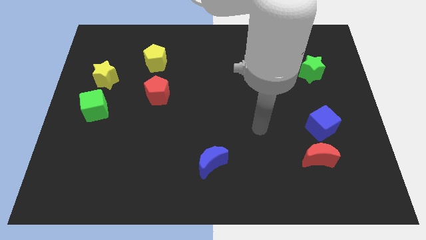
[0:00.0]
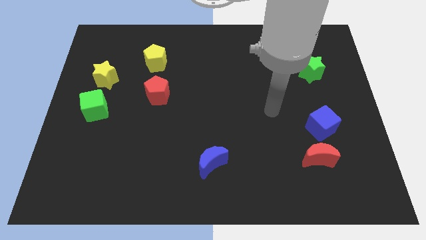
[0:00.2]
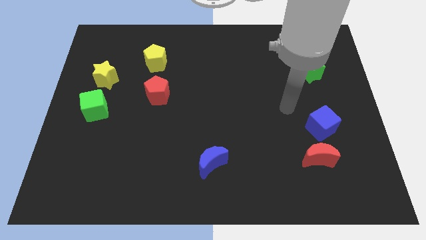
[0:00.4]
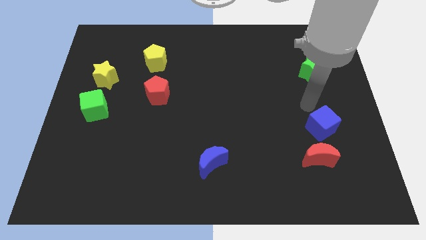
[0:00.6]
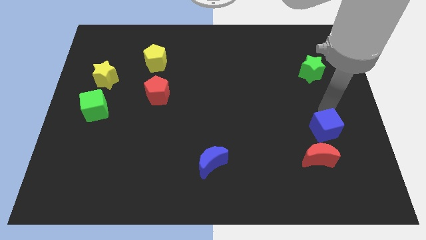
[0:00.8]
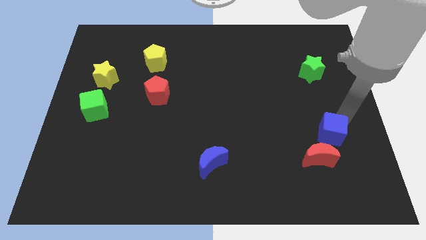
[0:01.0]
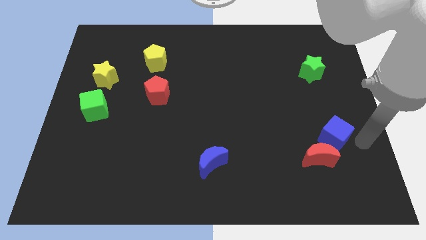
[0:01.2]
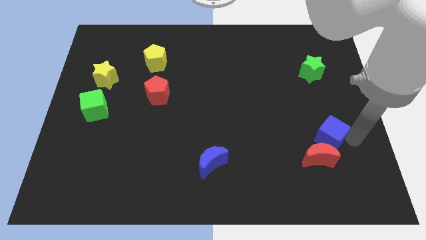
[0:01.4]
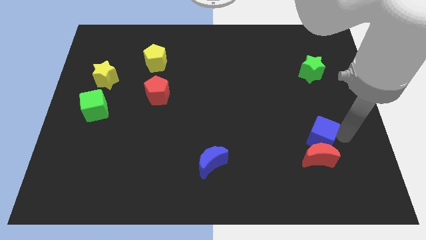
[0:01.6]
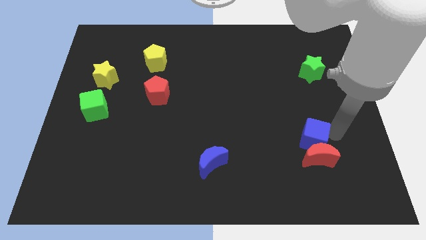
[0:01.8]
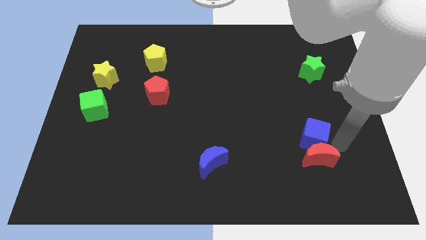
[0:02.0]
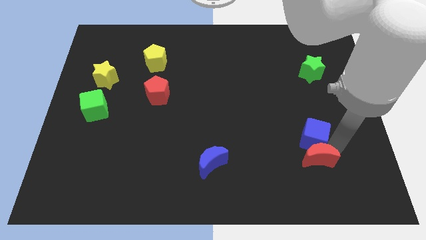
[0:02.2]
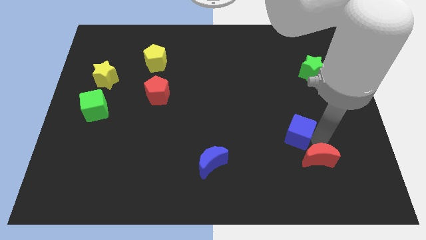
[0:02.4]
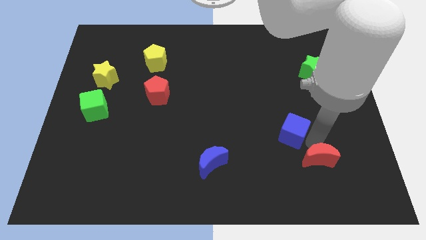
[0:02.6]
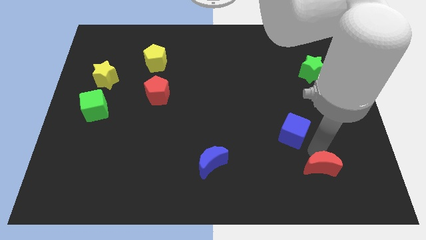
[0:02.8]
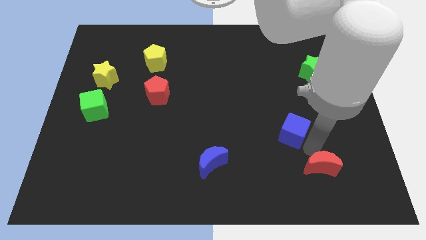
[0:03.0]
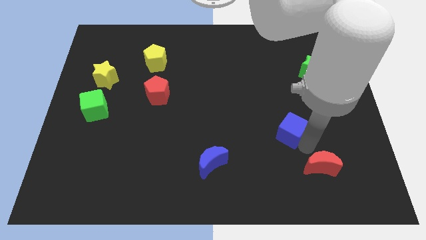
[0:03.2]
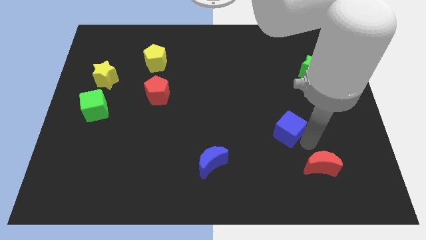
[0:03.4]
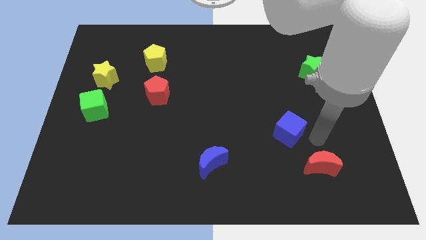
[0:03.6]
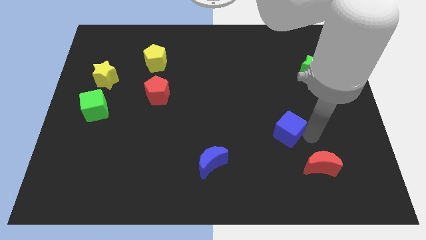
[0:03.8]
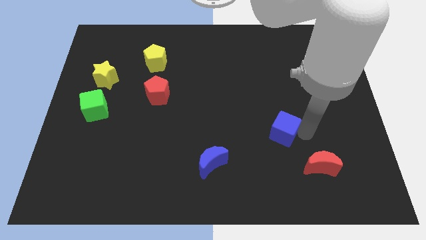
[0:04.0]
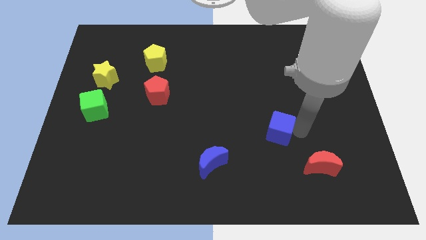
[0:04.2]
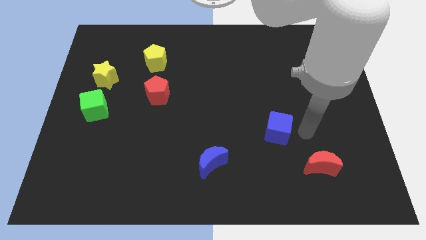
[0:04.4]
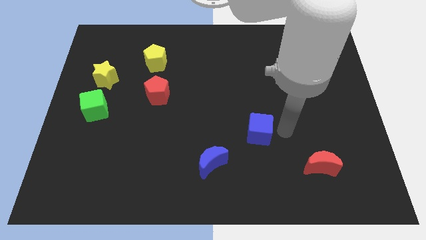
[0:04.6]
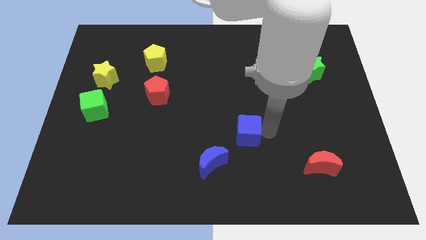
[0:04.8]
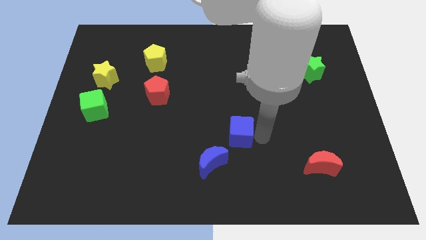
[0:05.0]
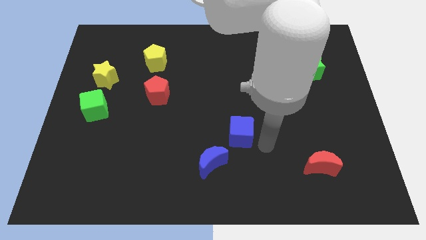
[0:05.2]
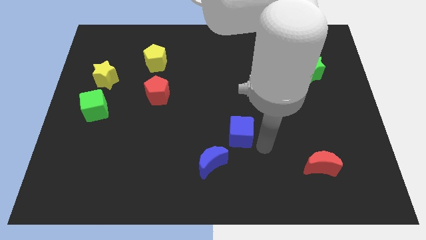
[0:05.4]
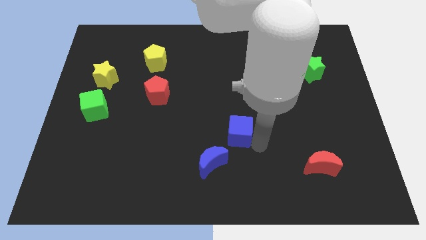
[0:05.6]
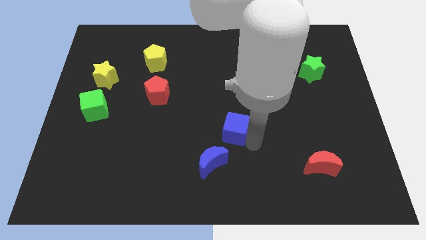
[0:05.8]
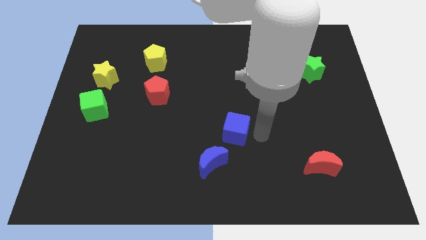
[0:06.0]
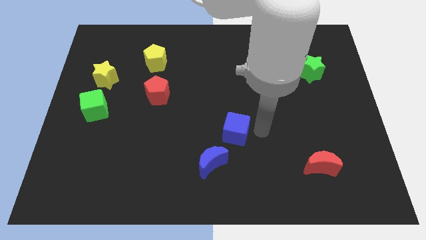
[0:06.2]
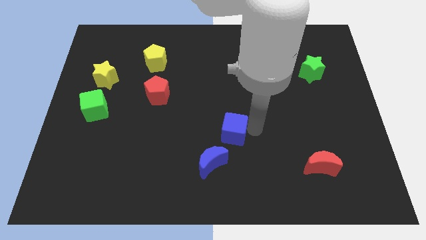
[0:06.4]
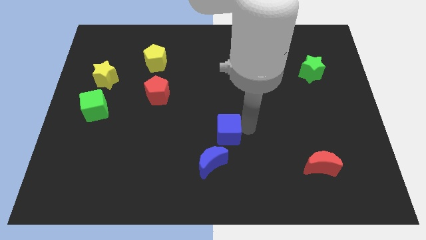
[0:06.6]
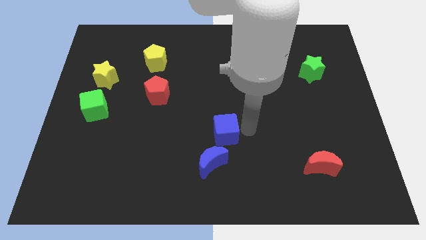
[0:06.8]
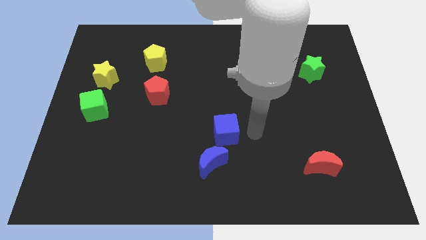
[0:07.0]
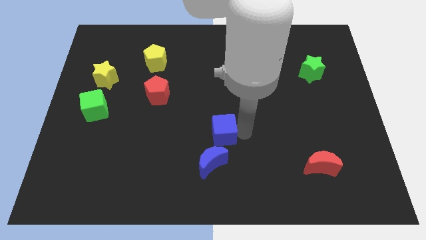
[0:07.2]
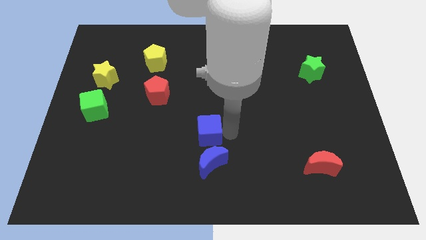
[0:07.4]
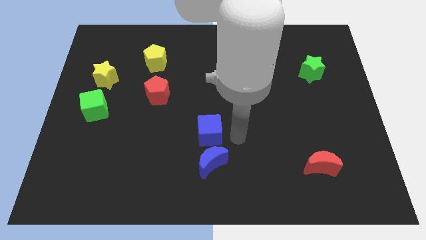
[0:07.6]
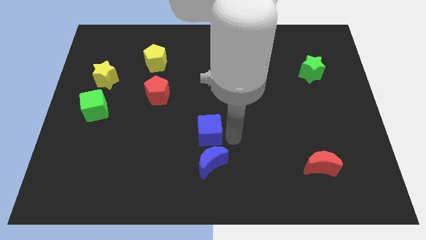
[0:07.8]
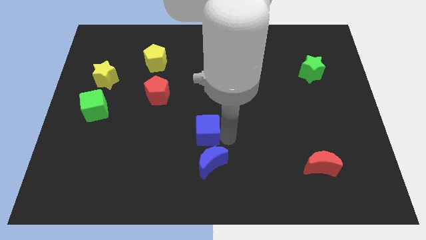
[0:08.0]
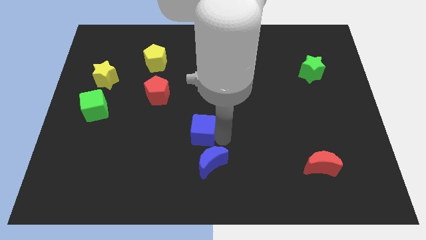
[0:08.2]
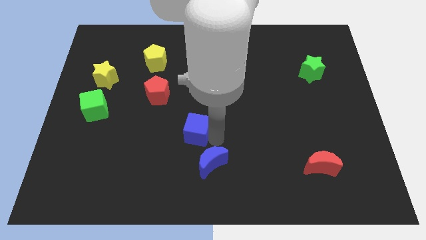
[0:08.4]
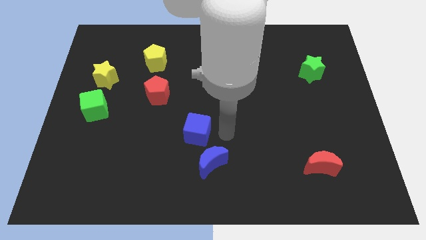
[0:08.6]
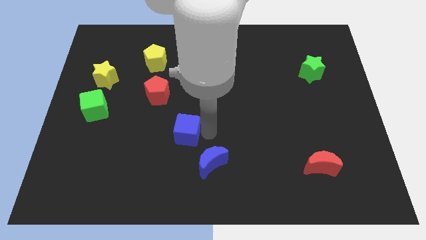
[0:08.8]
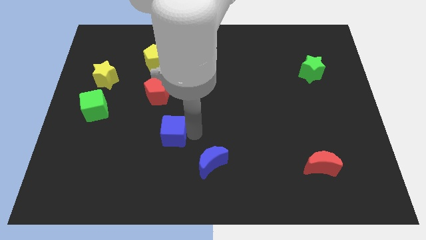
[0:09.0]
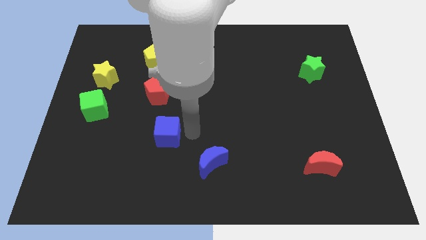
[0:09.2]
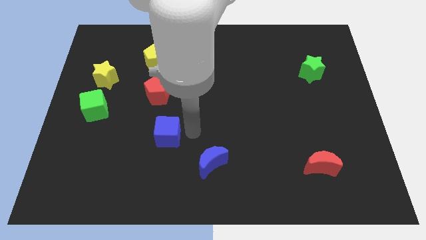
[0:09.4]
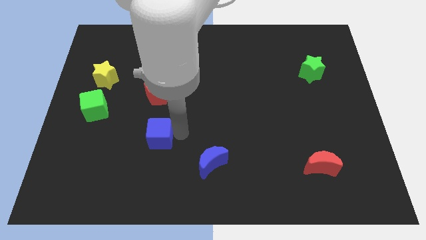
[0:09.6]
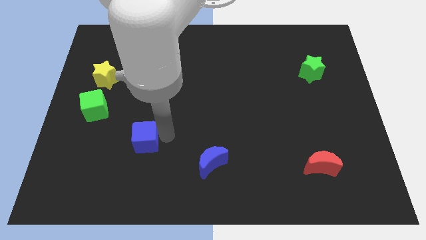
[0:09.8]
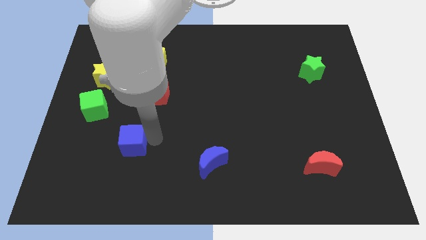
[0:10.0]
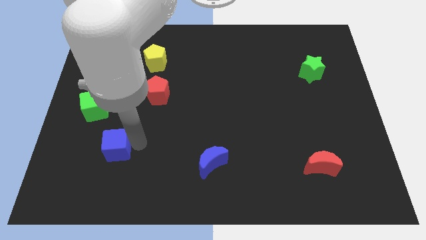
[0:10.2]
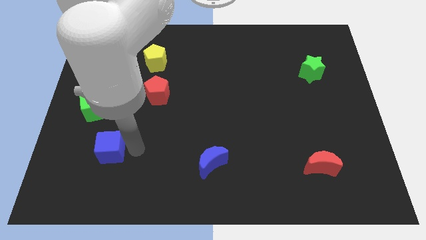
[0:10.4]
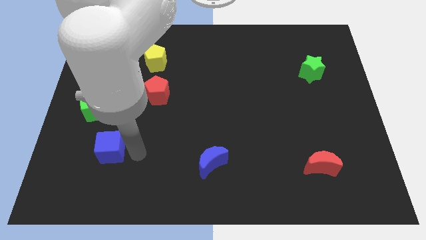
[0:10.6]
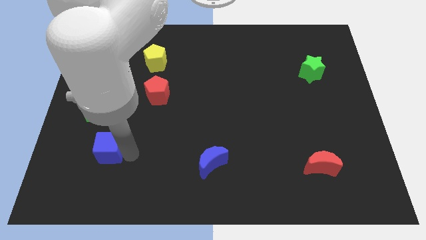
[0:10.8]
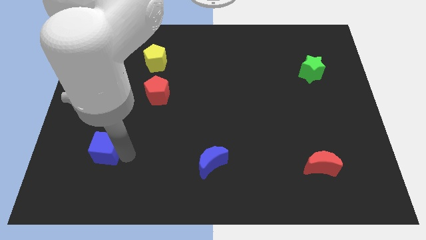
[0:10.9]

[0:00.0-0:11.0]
slide the blue cube below the green cube

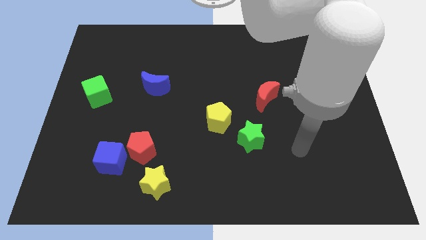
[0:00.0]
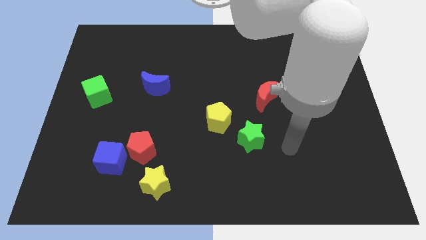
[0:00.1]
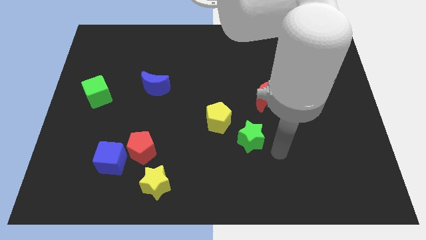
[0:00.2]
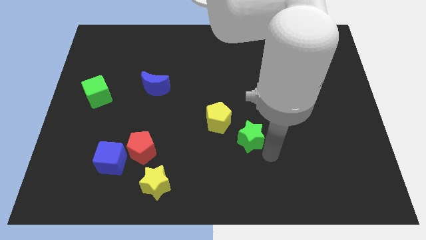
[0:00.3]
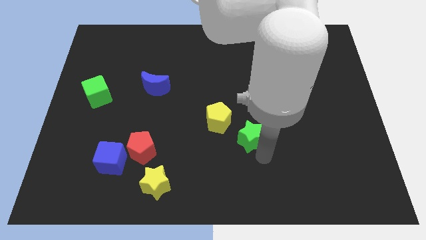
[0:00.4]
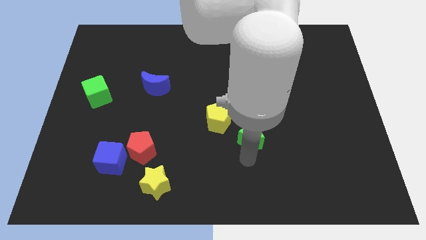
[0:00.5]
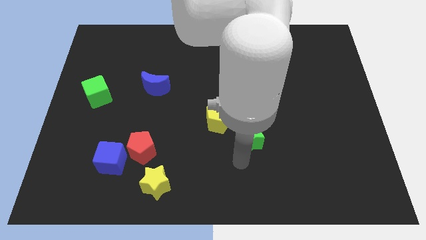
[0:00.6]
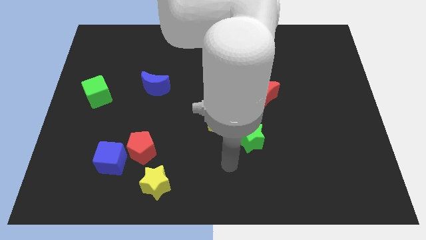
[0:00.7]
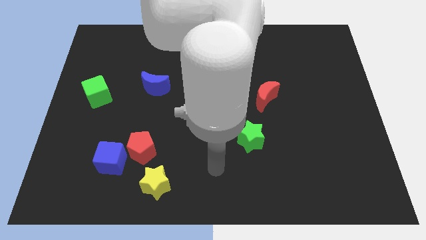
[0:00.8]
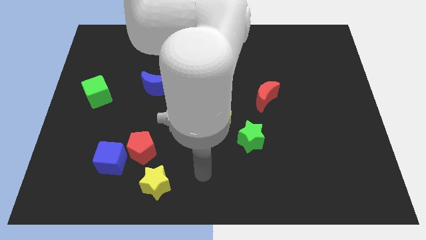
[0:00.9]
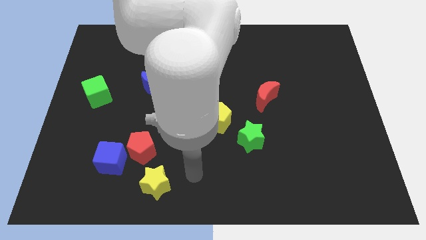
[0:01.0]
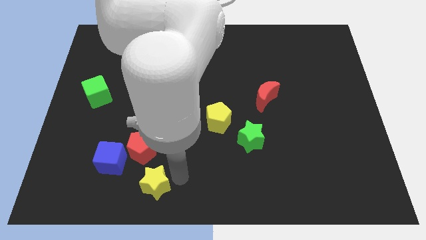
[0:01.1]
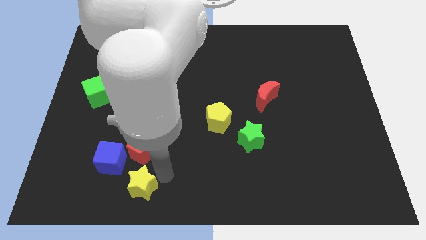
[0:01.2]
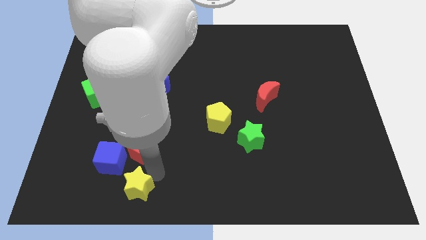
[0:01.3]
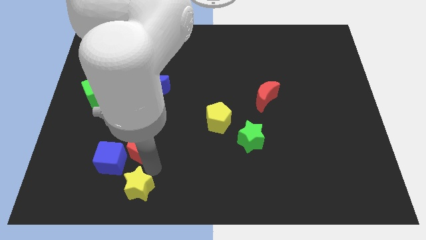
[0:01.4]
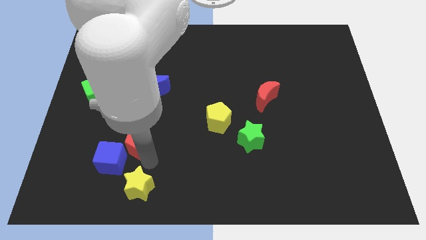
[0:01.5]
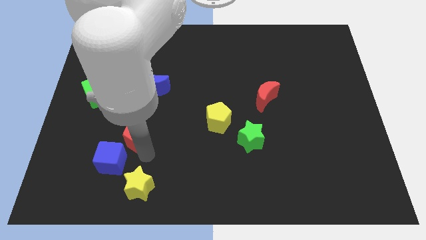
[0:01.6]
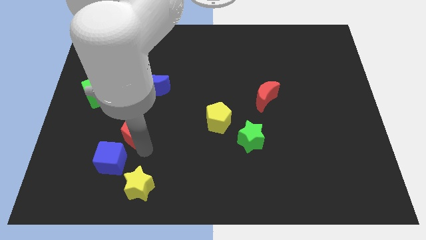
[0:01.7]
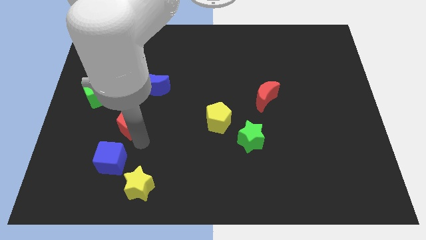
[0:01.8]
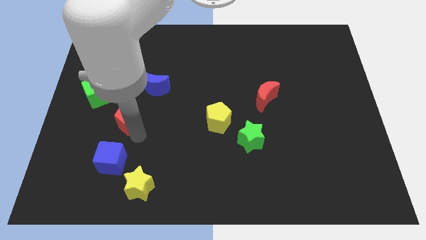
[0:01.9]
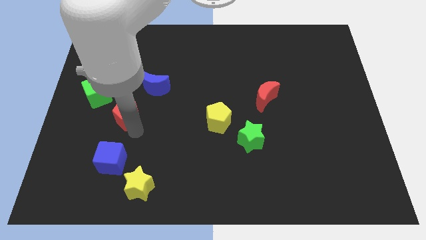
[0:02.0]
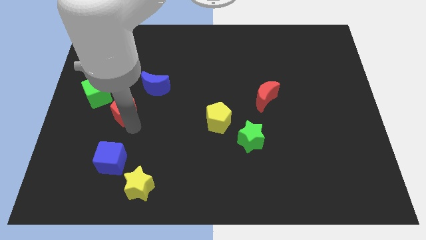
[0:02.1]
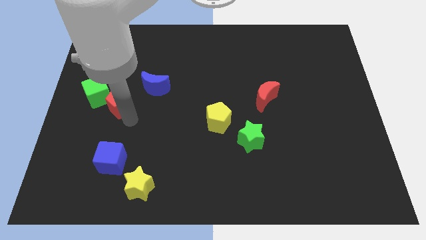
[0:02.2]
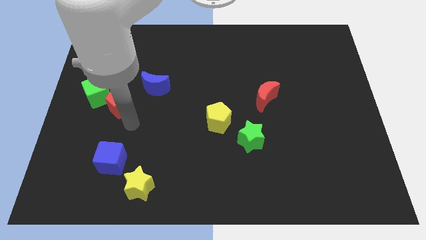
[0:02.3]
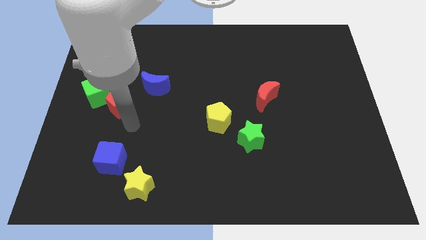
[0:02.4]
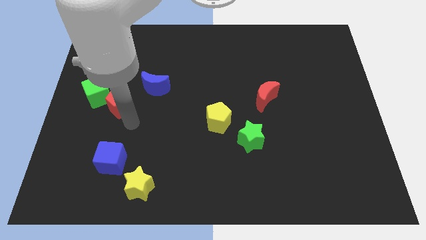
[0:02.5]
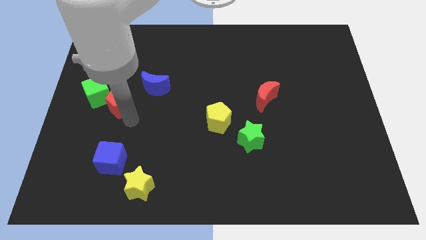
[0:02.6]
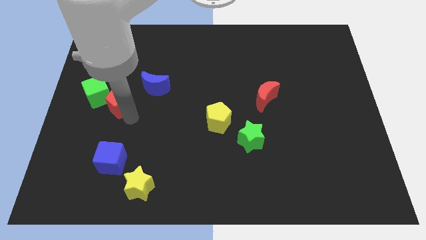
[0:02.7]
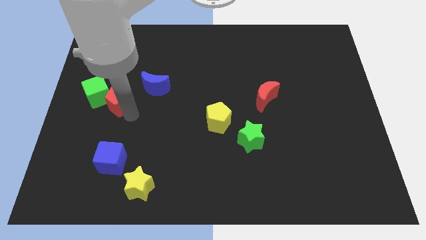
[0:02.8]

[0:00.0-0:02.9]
push the red pentagon to the left side of the blue moon
